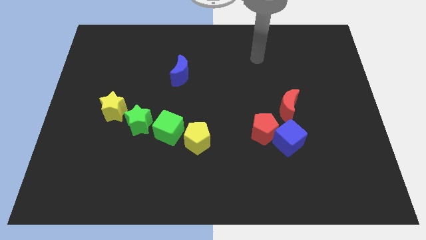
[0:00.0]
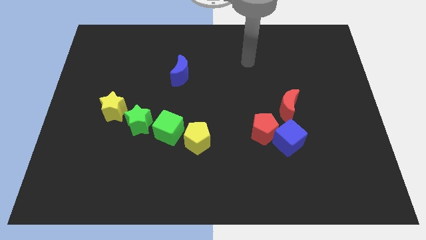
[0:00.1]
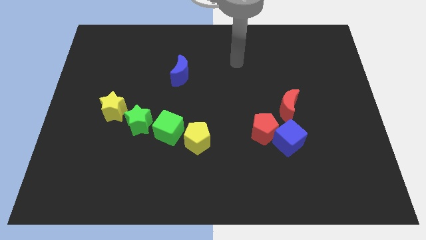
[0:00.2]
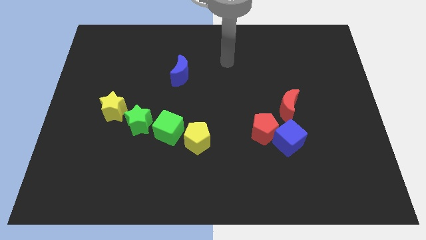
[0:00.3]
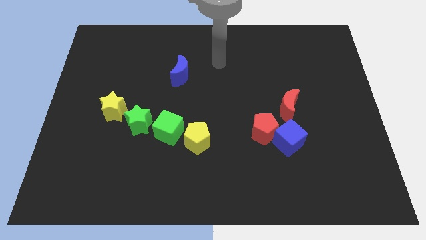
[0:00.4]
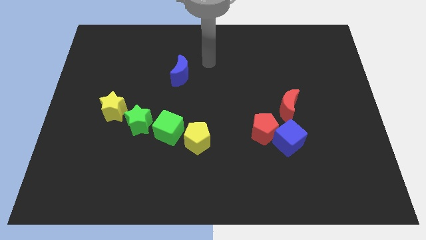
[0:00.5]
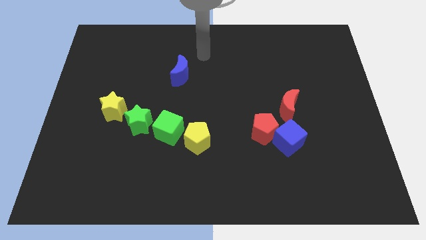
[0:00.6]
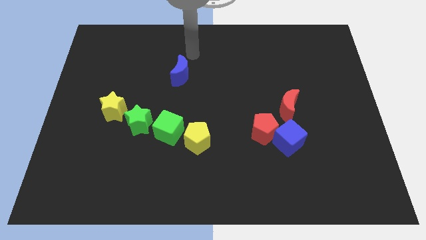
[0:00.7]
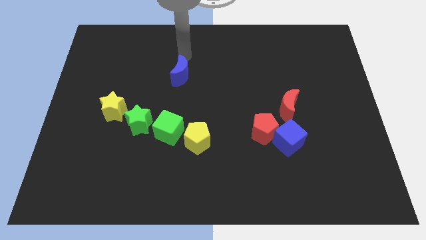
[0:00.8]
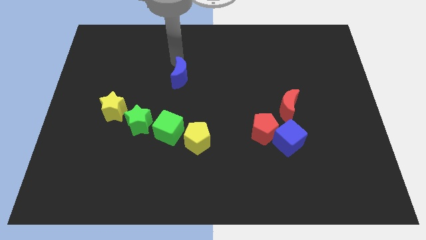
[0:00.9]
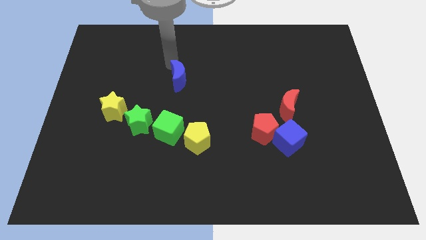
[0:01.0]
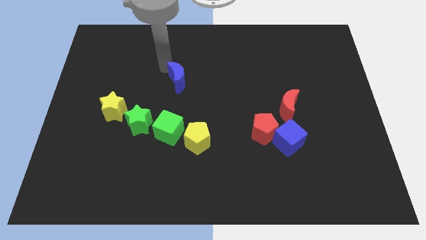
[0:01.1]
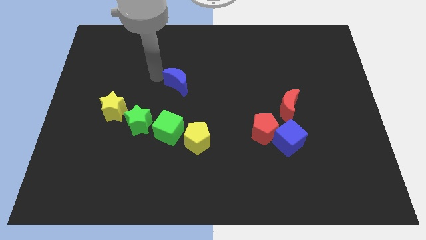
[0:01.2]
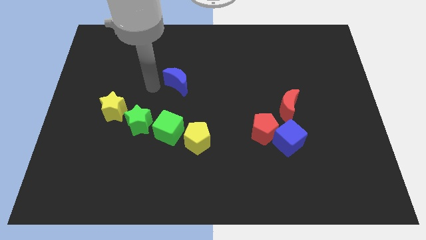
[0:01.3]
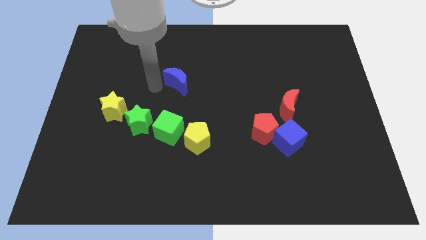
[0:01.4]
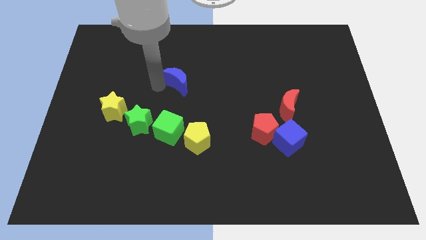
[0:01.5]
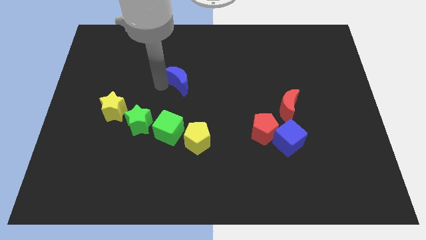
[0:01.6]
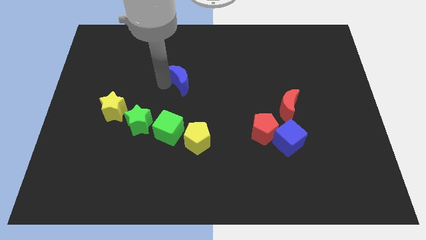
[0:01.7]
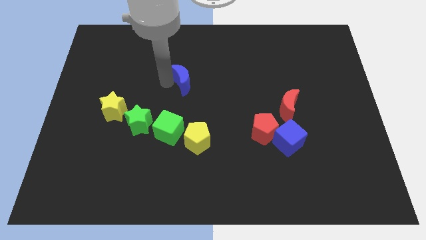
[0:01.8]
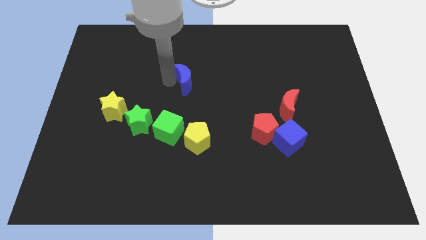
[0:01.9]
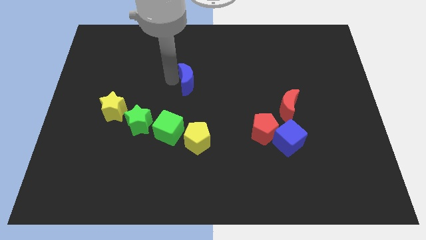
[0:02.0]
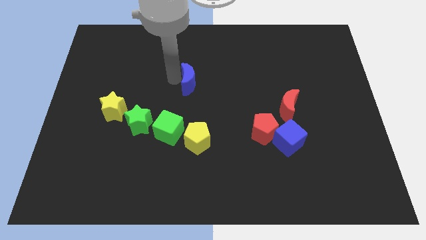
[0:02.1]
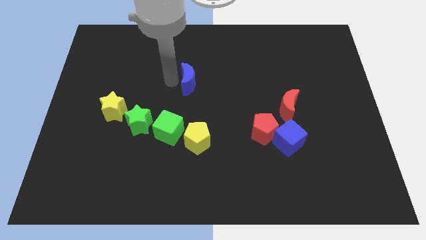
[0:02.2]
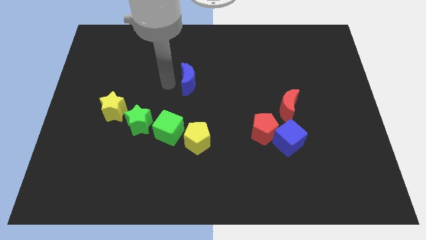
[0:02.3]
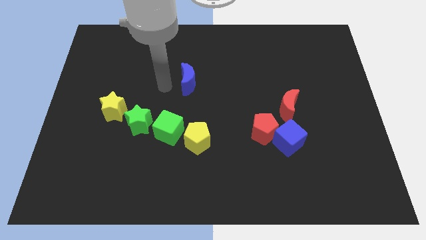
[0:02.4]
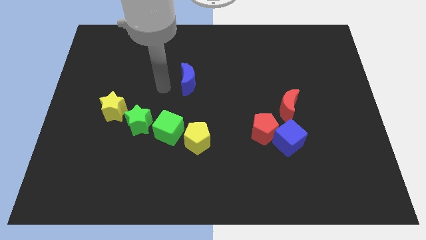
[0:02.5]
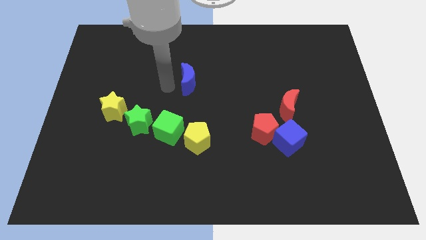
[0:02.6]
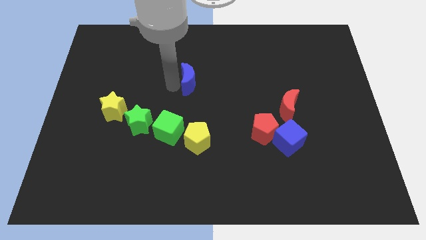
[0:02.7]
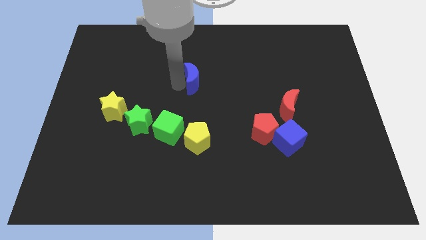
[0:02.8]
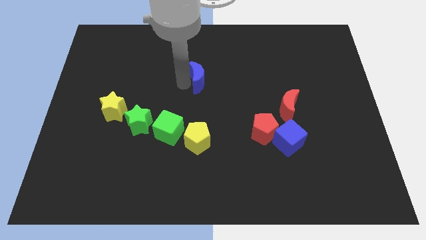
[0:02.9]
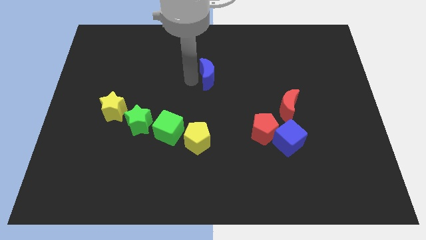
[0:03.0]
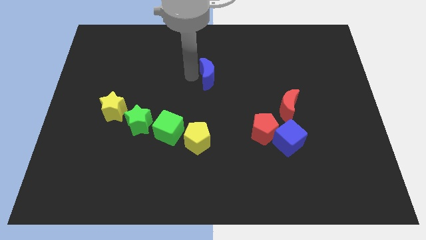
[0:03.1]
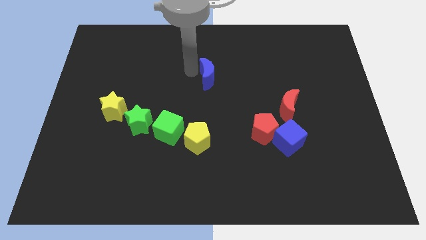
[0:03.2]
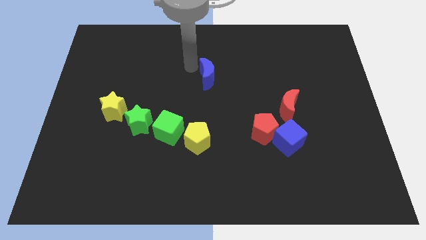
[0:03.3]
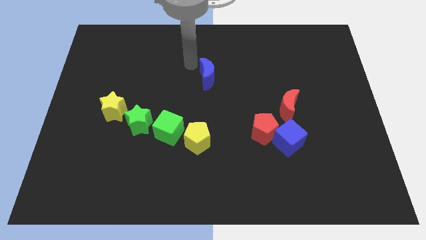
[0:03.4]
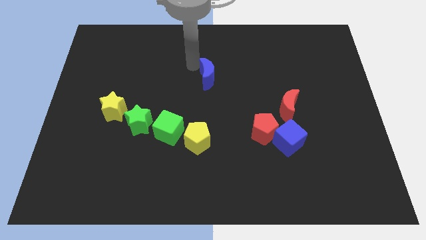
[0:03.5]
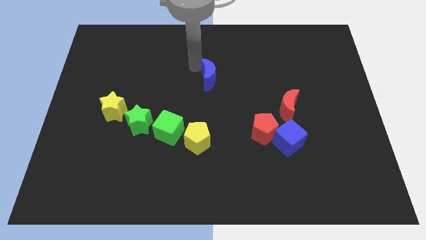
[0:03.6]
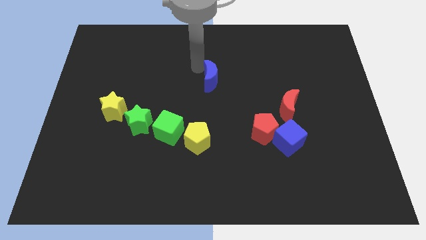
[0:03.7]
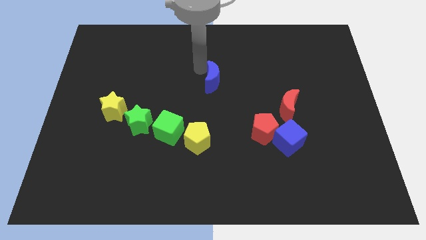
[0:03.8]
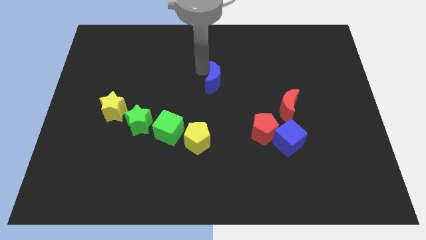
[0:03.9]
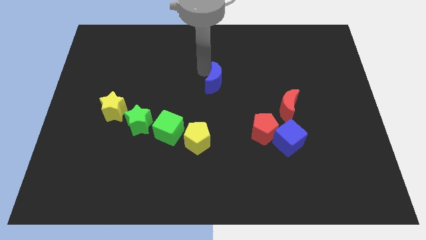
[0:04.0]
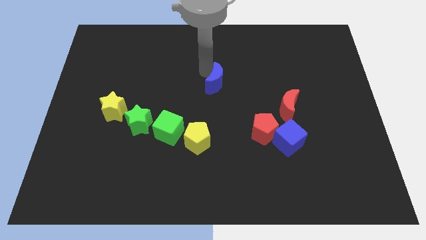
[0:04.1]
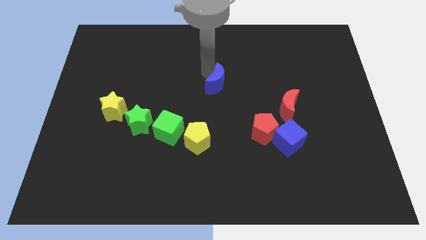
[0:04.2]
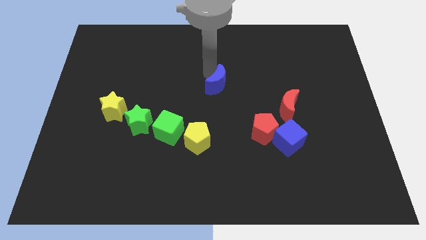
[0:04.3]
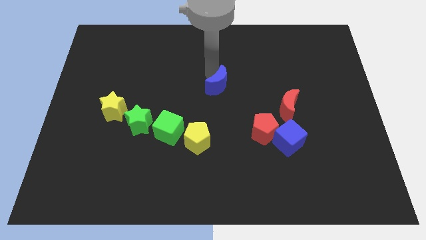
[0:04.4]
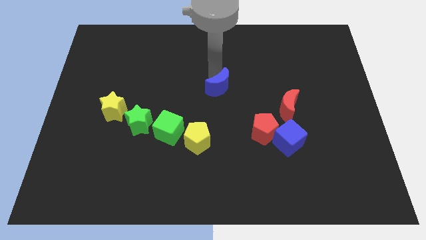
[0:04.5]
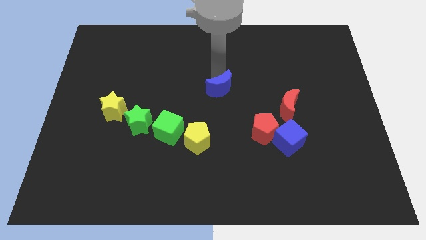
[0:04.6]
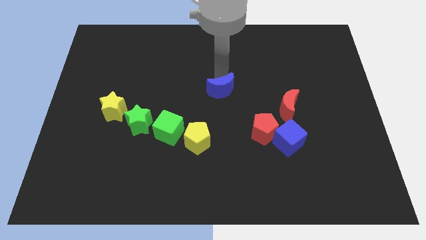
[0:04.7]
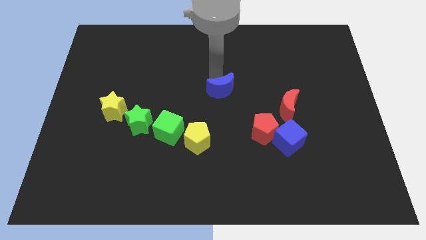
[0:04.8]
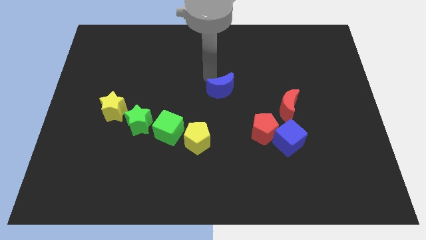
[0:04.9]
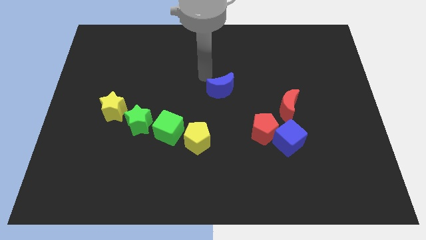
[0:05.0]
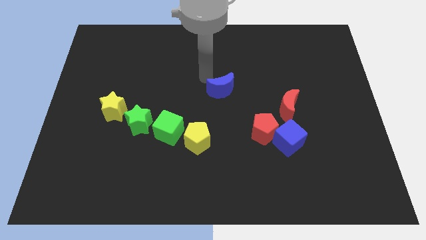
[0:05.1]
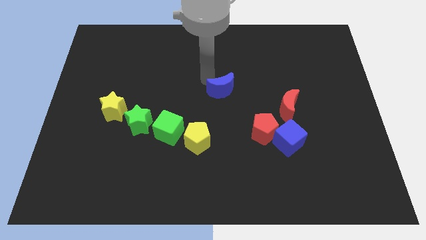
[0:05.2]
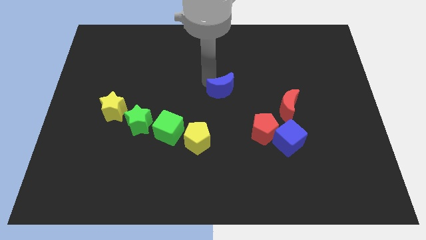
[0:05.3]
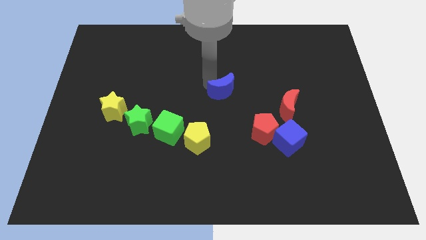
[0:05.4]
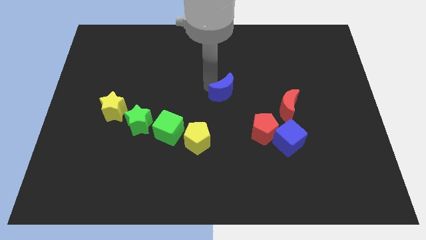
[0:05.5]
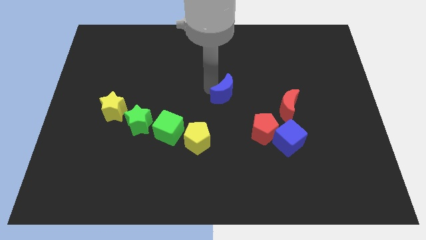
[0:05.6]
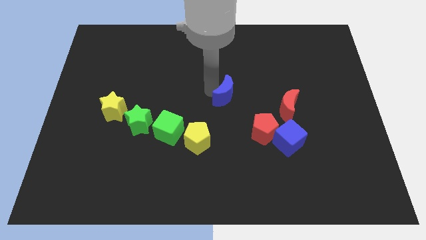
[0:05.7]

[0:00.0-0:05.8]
move the blue moon left of the red moon

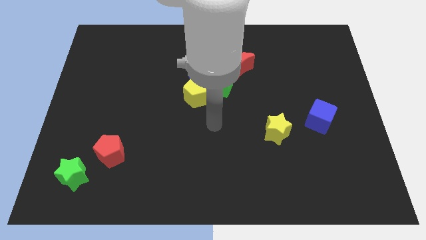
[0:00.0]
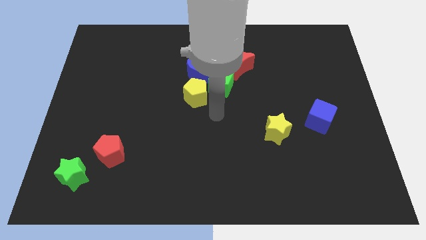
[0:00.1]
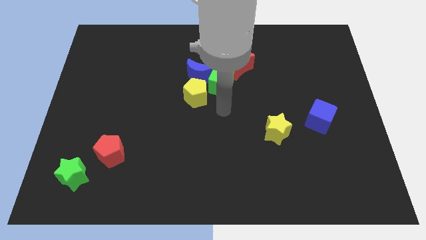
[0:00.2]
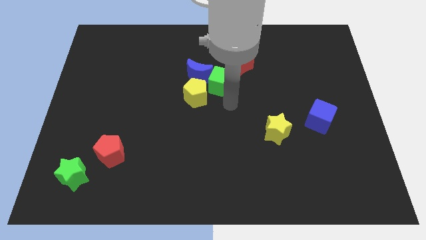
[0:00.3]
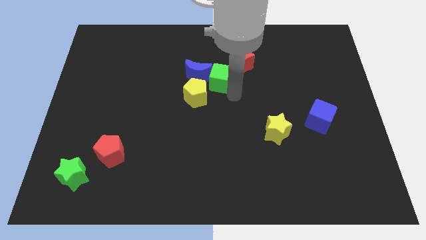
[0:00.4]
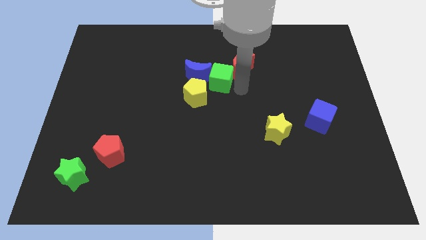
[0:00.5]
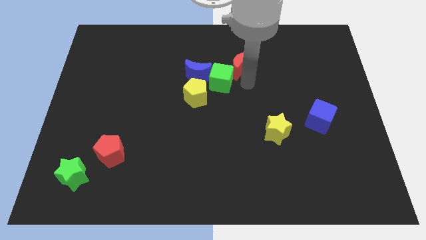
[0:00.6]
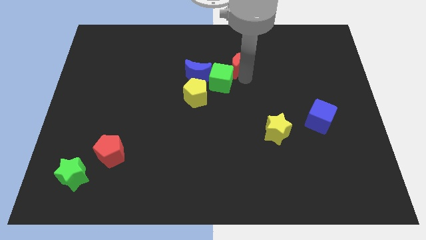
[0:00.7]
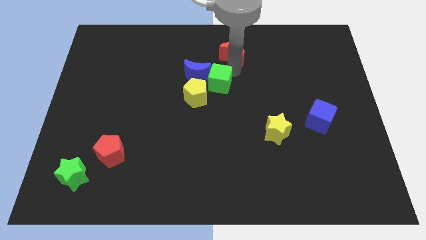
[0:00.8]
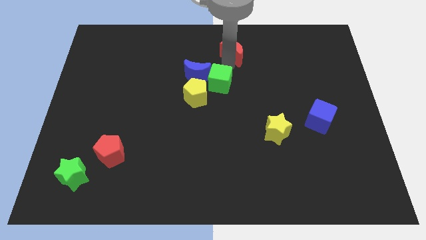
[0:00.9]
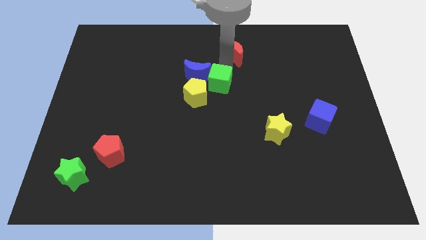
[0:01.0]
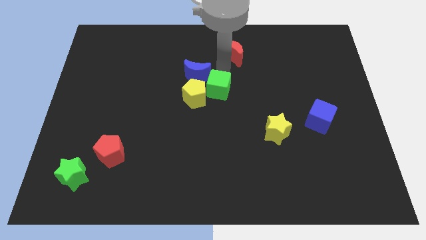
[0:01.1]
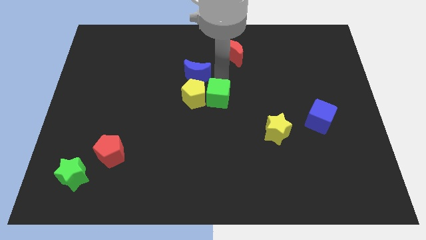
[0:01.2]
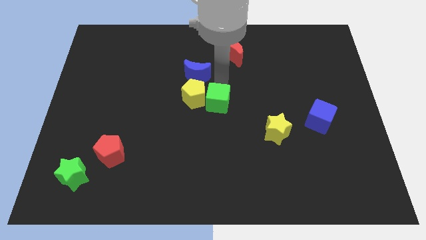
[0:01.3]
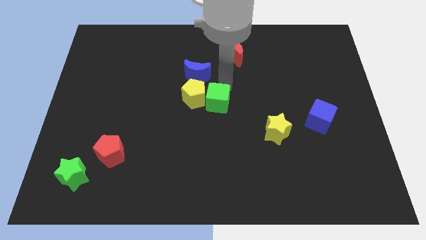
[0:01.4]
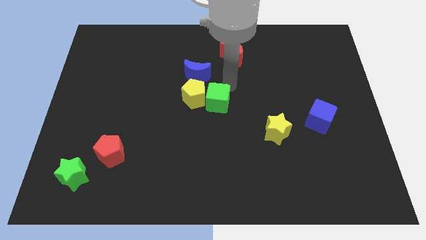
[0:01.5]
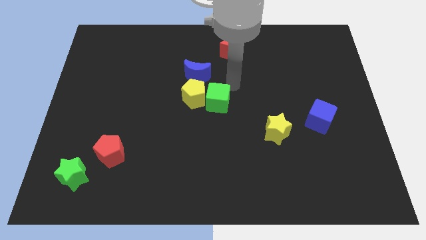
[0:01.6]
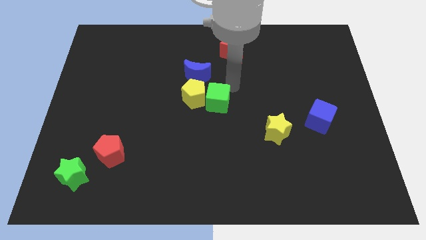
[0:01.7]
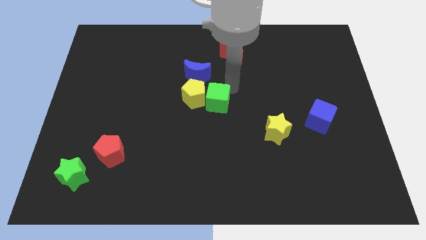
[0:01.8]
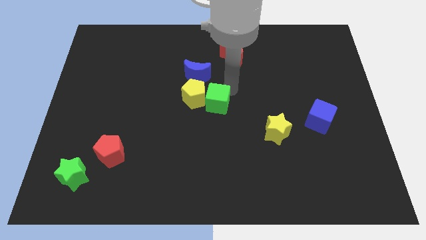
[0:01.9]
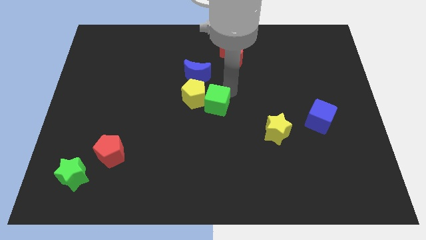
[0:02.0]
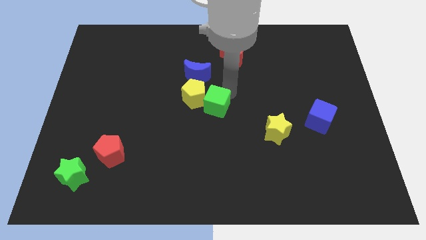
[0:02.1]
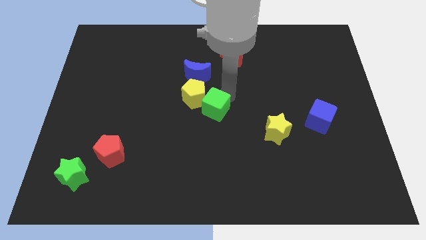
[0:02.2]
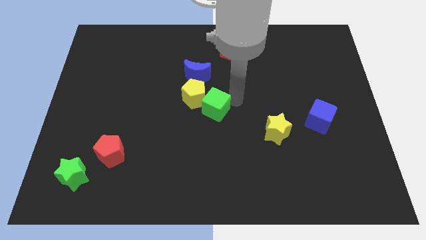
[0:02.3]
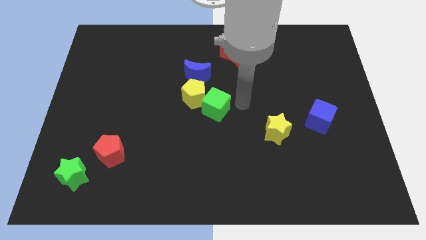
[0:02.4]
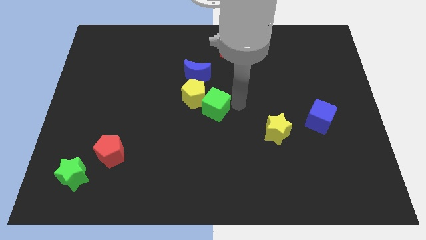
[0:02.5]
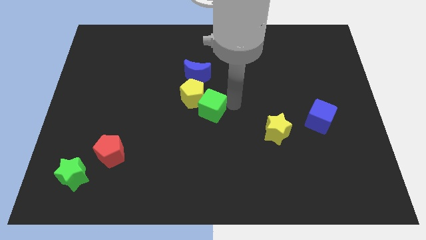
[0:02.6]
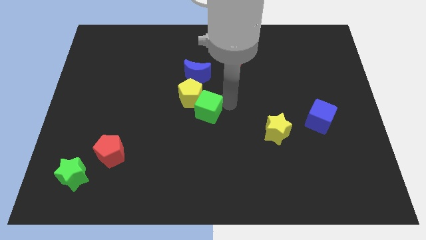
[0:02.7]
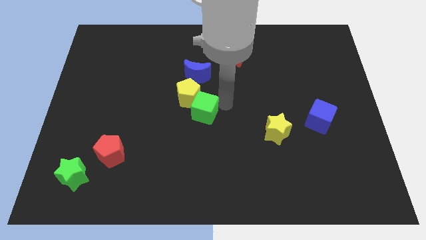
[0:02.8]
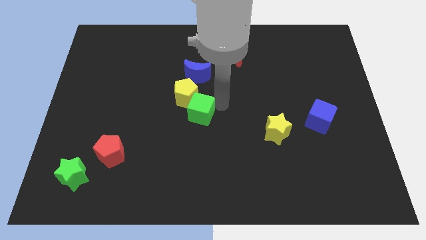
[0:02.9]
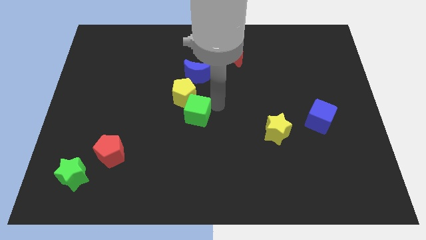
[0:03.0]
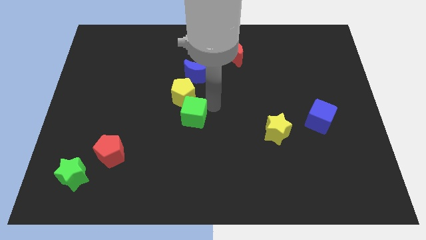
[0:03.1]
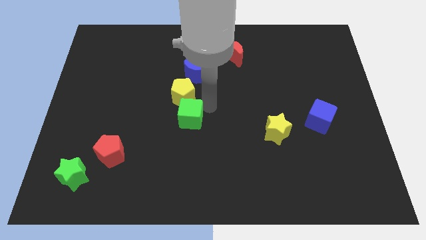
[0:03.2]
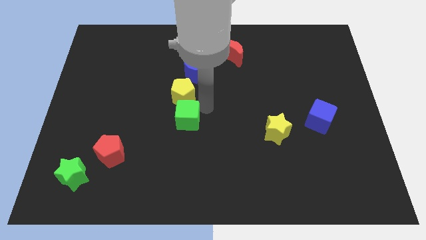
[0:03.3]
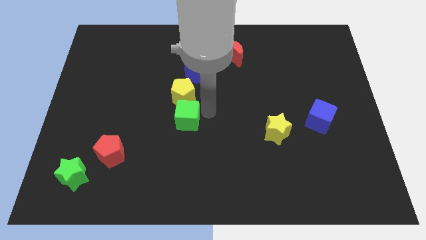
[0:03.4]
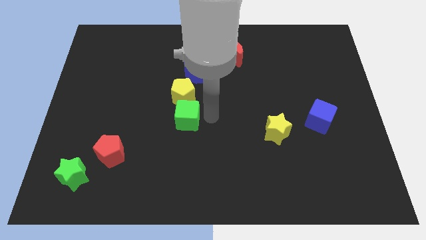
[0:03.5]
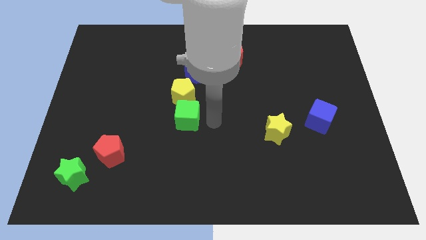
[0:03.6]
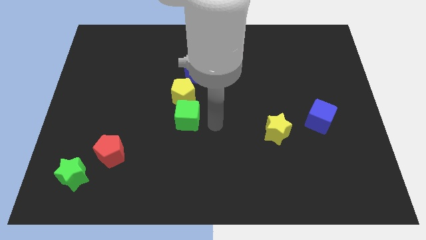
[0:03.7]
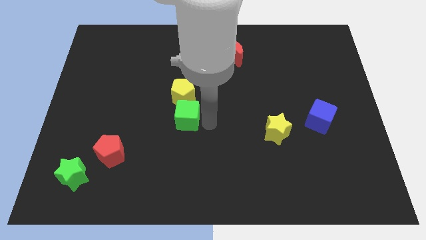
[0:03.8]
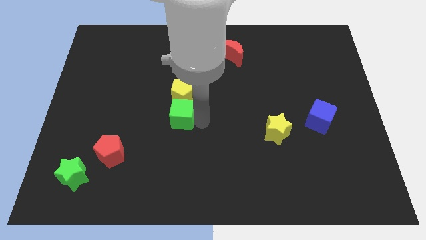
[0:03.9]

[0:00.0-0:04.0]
slide the green cube diagonally down and to the left of the yellow pentagon
